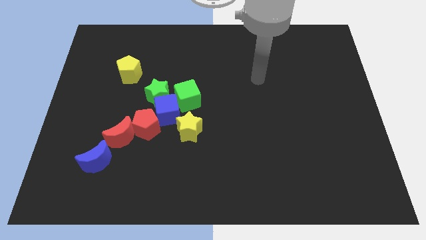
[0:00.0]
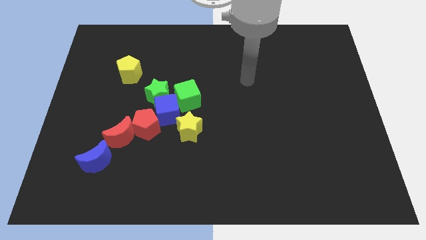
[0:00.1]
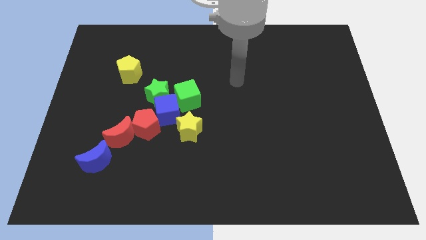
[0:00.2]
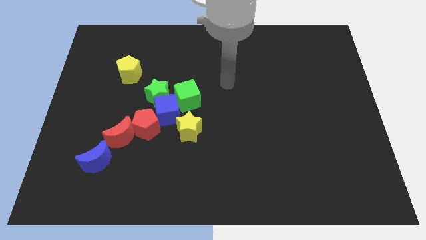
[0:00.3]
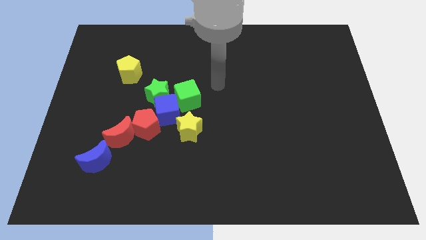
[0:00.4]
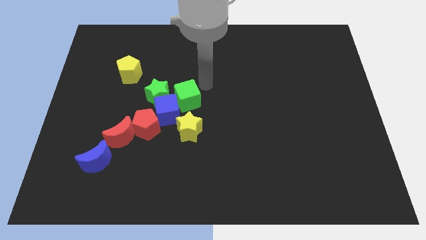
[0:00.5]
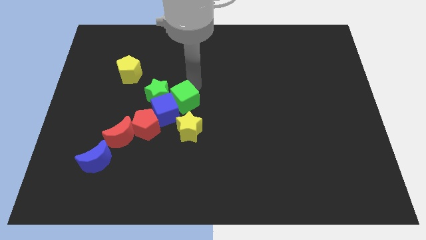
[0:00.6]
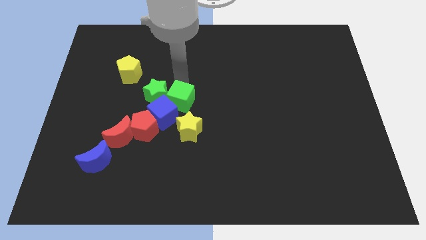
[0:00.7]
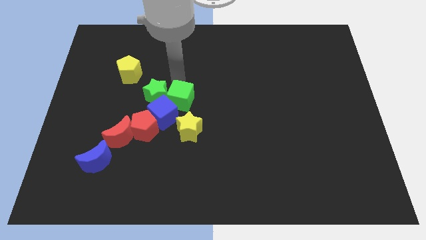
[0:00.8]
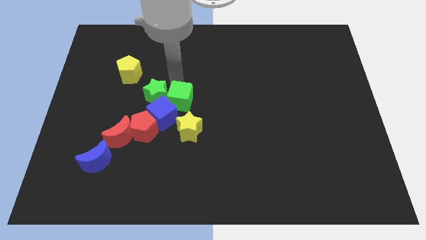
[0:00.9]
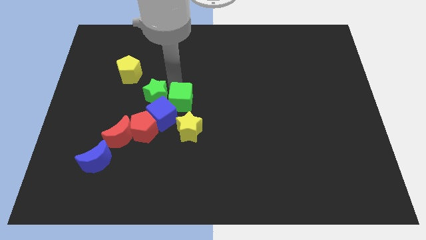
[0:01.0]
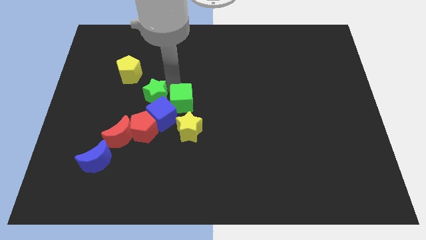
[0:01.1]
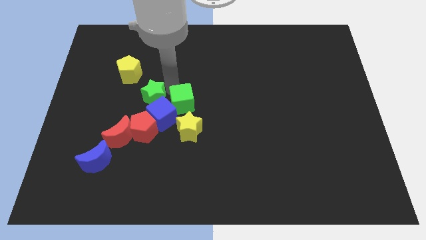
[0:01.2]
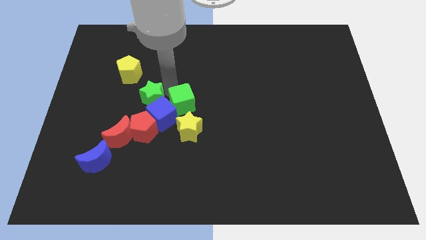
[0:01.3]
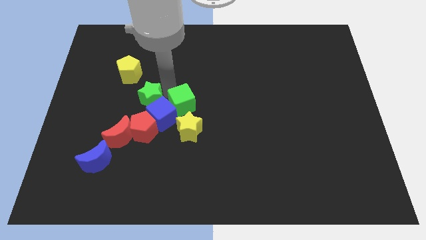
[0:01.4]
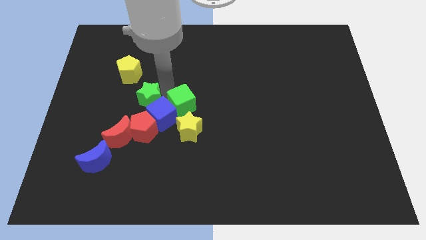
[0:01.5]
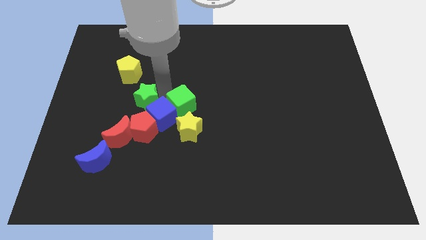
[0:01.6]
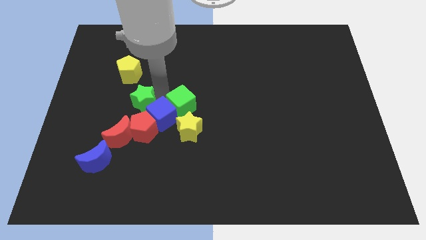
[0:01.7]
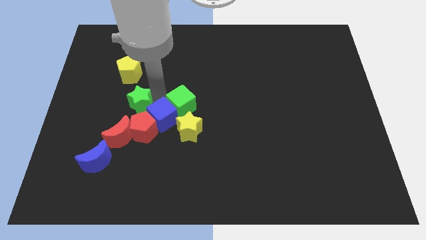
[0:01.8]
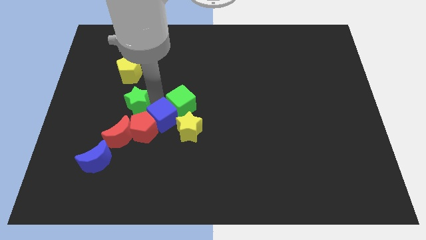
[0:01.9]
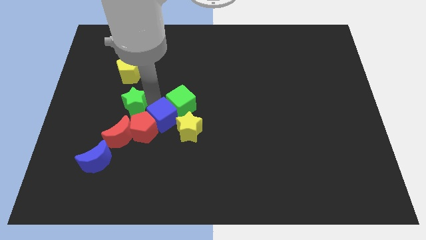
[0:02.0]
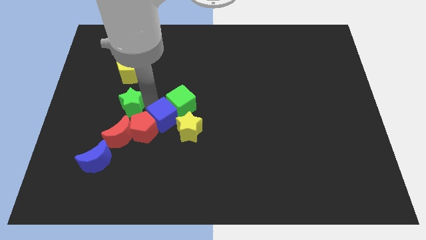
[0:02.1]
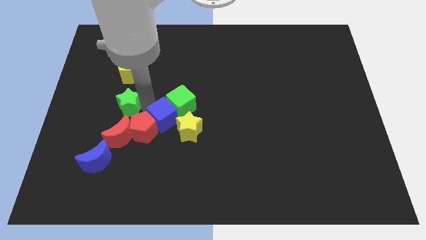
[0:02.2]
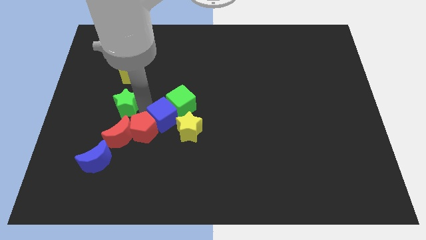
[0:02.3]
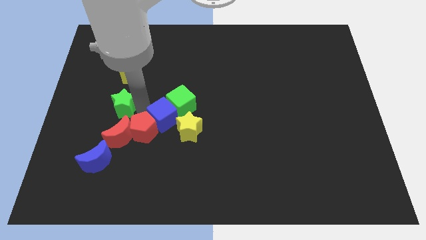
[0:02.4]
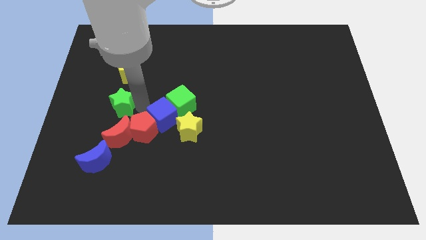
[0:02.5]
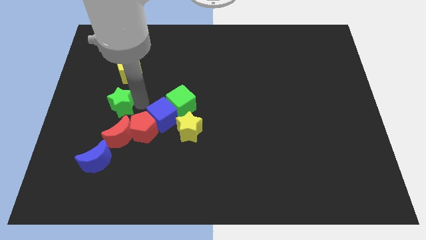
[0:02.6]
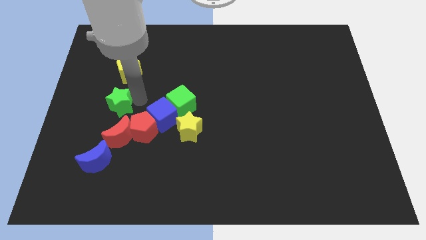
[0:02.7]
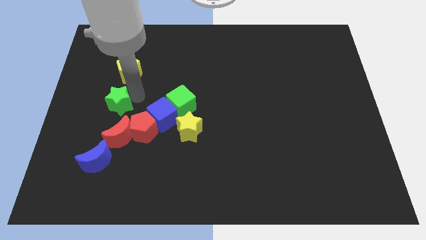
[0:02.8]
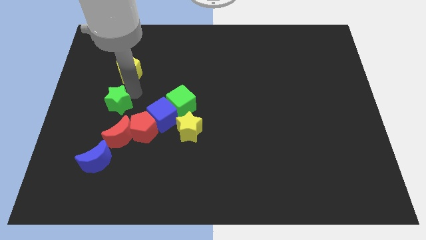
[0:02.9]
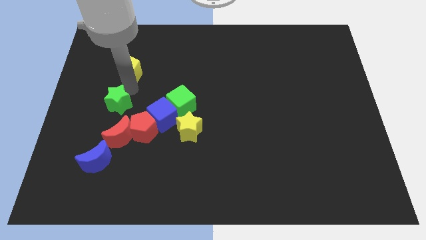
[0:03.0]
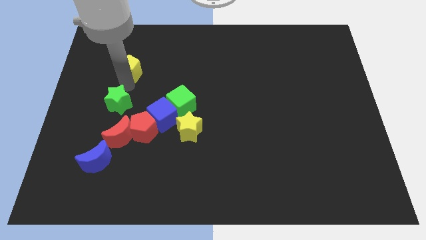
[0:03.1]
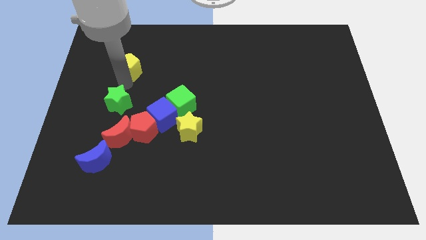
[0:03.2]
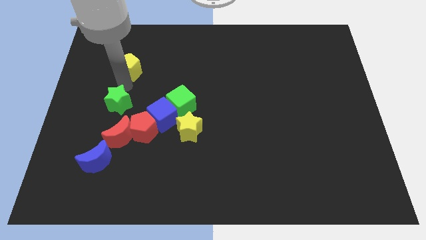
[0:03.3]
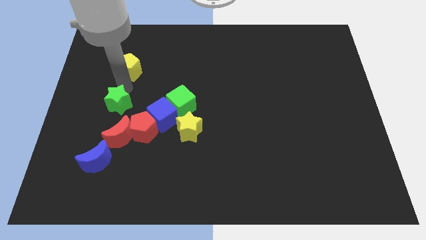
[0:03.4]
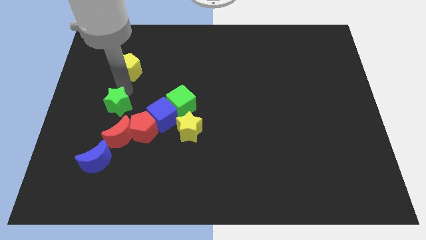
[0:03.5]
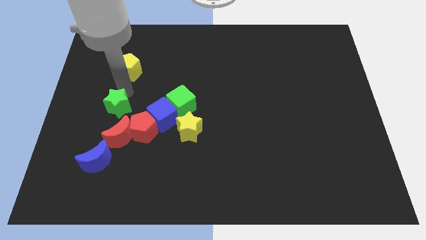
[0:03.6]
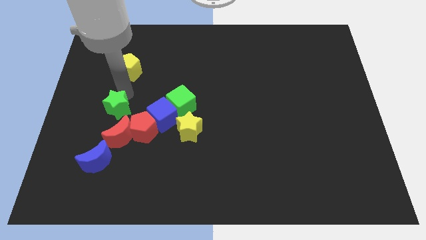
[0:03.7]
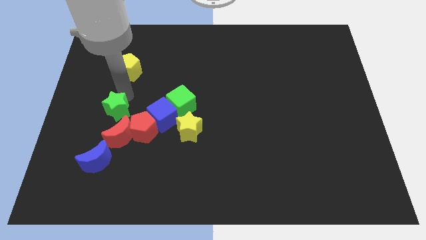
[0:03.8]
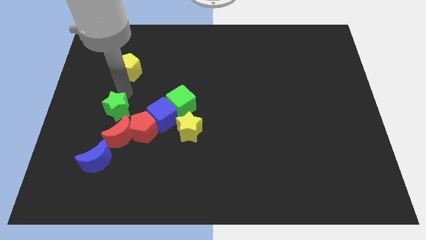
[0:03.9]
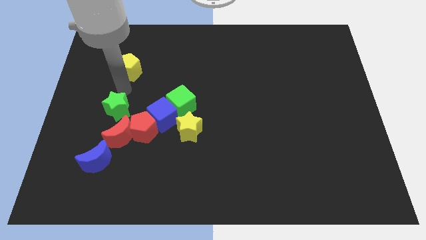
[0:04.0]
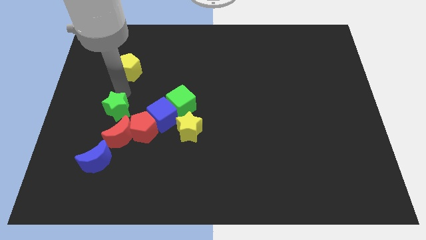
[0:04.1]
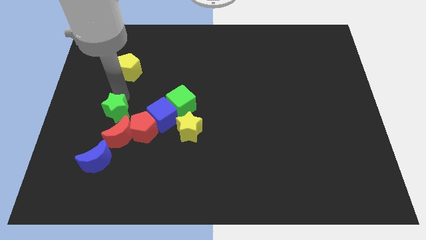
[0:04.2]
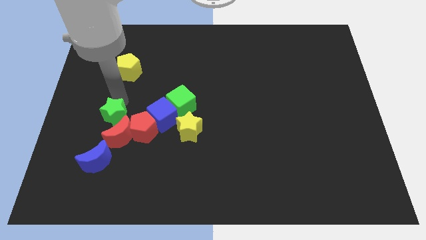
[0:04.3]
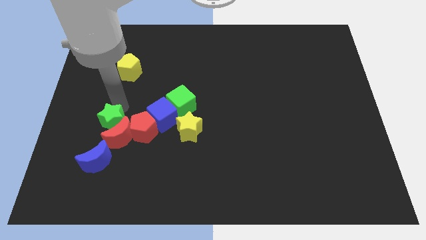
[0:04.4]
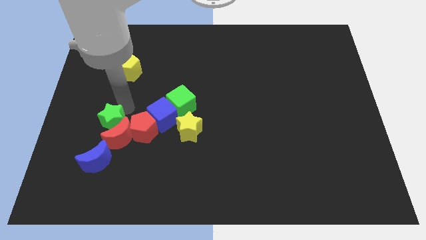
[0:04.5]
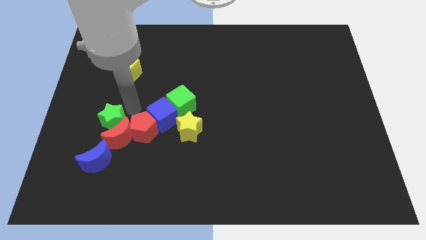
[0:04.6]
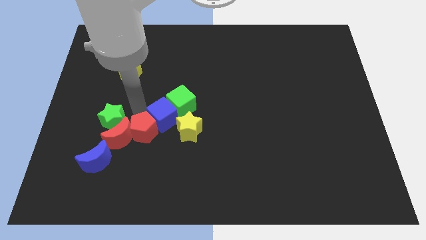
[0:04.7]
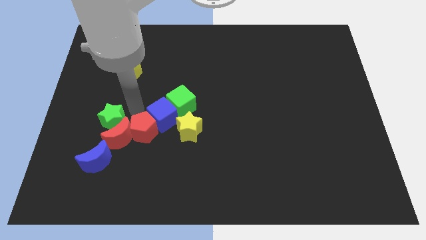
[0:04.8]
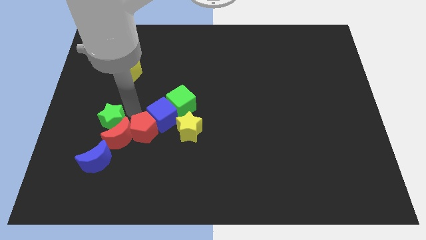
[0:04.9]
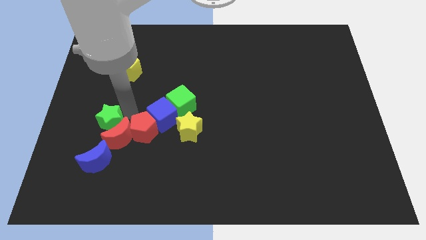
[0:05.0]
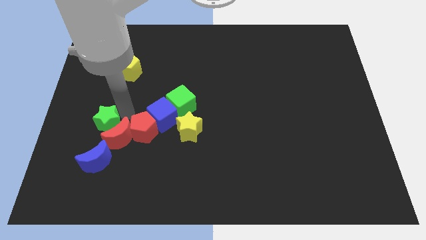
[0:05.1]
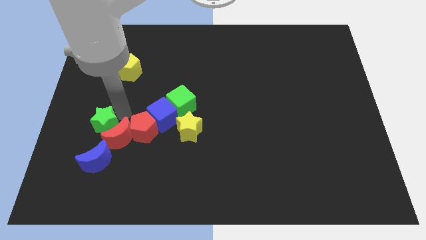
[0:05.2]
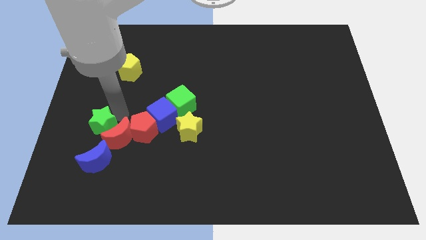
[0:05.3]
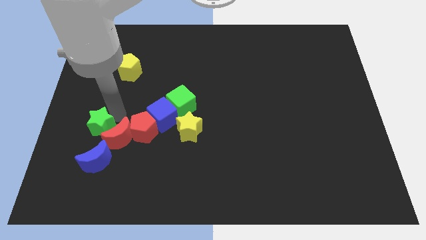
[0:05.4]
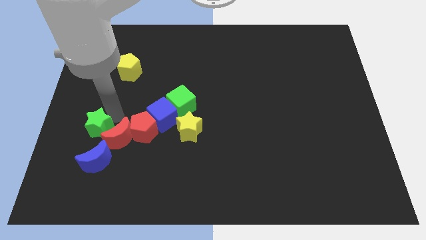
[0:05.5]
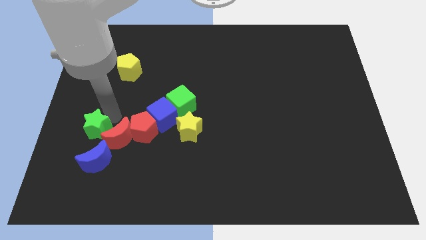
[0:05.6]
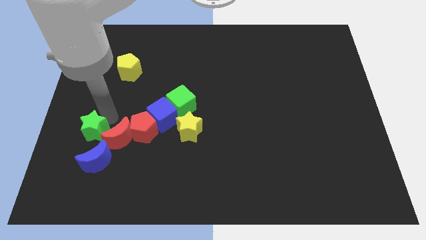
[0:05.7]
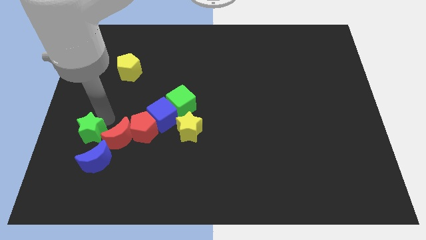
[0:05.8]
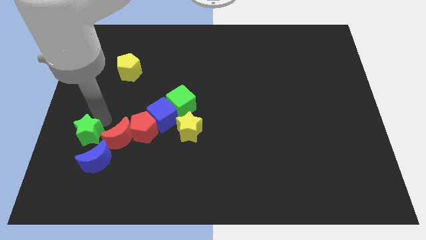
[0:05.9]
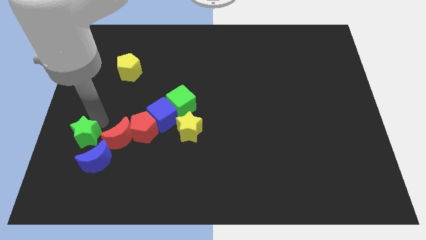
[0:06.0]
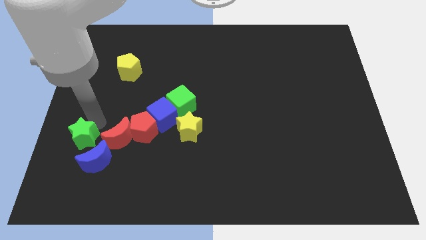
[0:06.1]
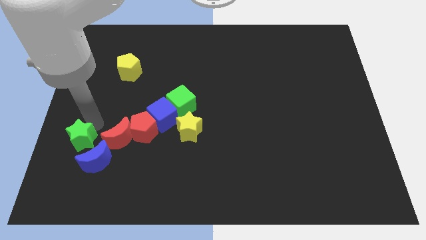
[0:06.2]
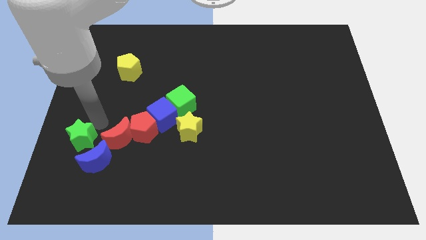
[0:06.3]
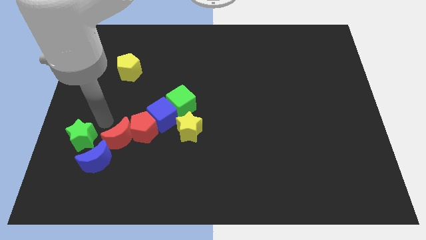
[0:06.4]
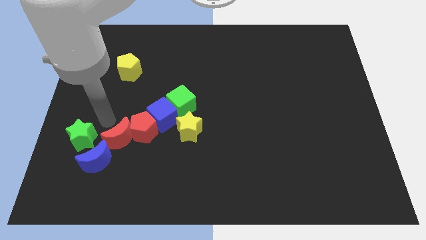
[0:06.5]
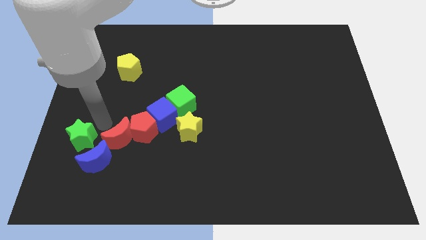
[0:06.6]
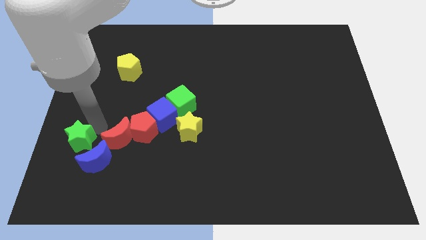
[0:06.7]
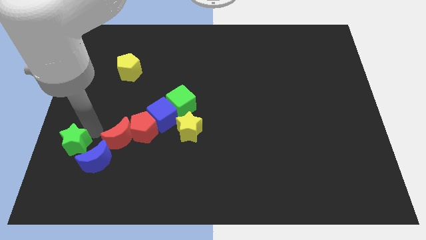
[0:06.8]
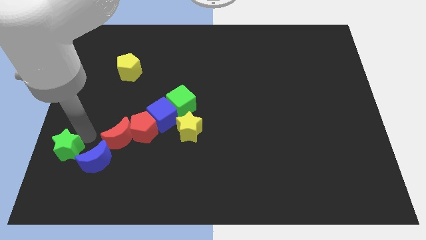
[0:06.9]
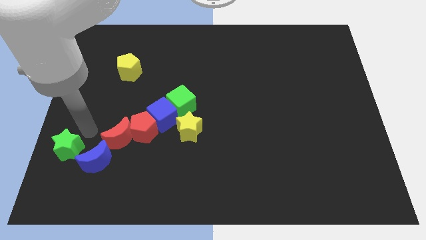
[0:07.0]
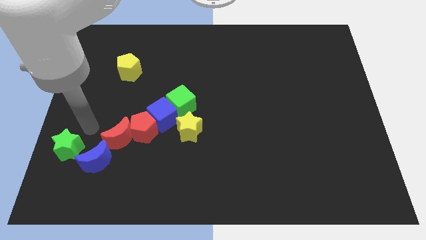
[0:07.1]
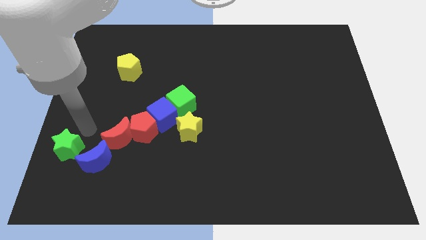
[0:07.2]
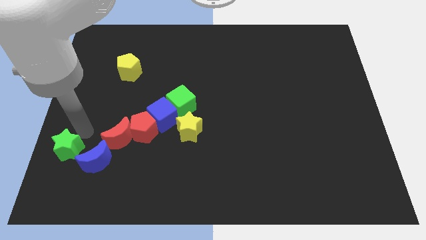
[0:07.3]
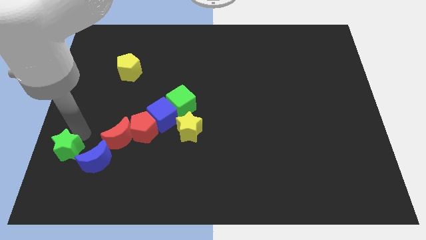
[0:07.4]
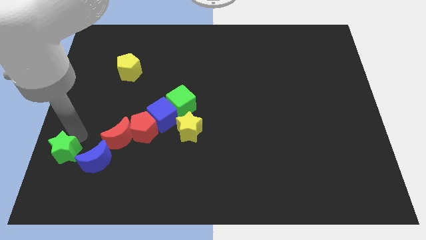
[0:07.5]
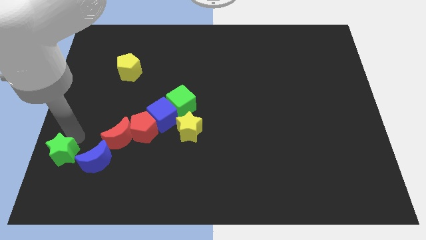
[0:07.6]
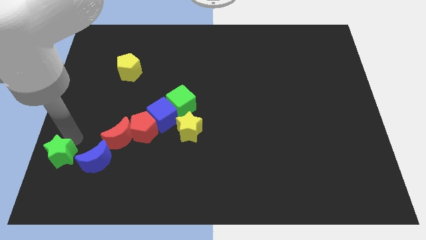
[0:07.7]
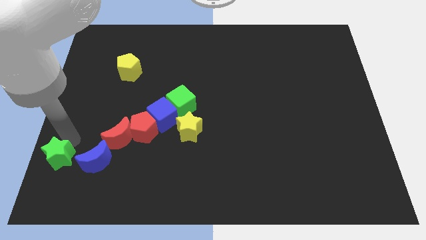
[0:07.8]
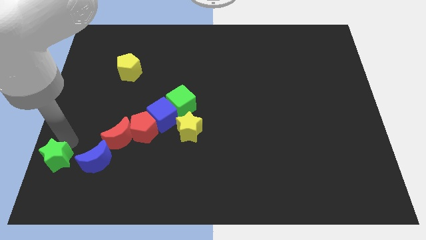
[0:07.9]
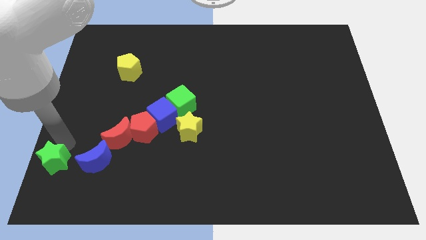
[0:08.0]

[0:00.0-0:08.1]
move the green star to the lower left corner
